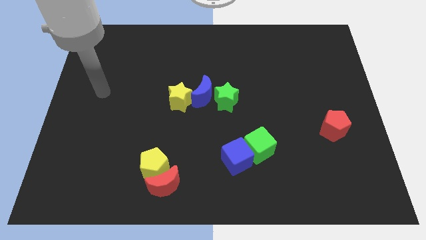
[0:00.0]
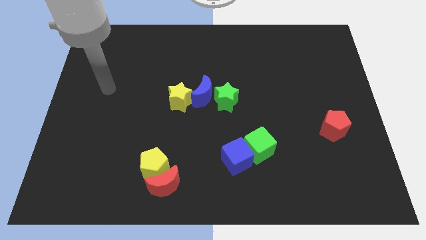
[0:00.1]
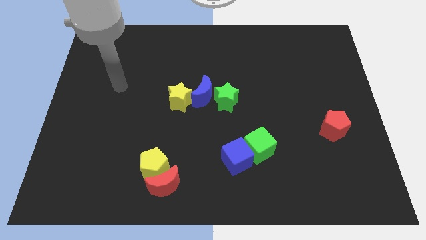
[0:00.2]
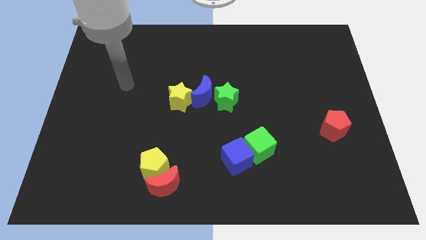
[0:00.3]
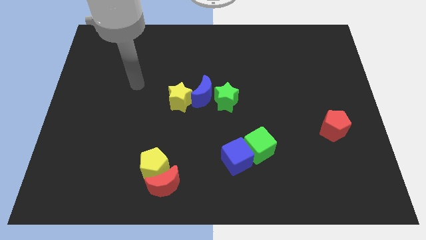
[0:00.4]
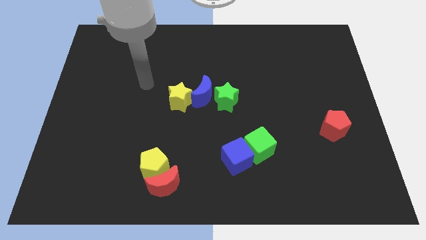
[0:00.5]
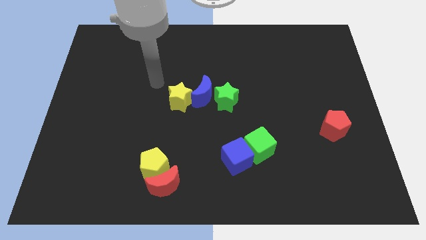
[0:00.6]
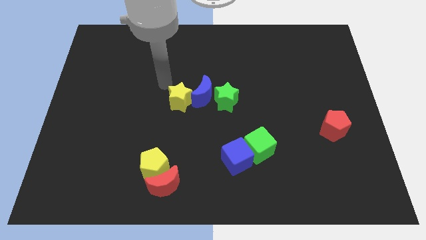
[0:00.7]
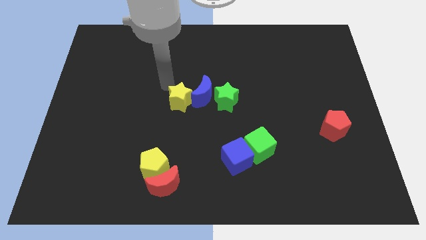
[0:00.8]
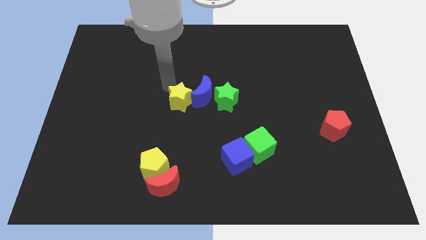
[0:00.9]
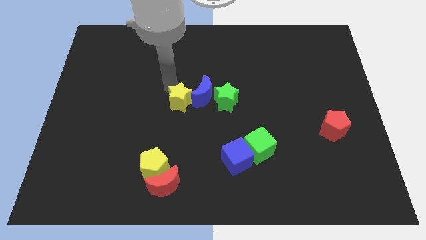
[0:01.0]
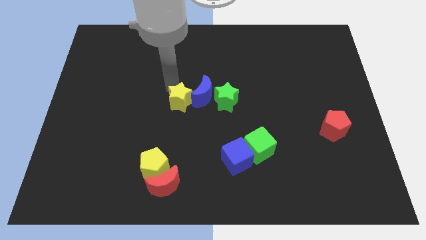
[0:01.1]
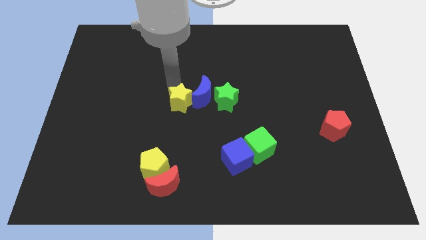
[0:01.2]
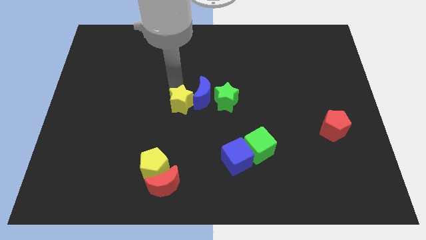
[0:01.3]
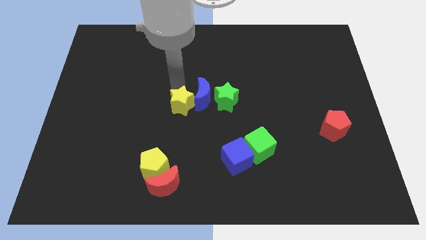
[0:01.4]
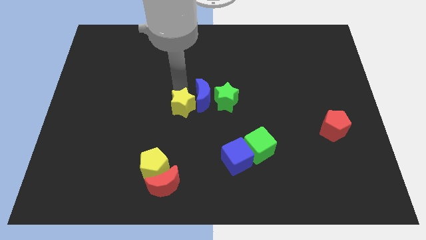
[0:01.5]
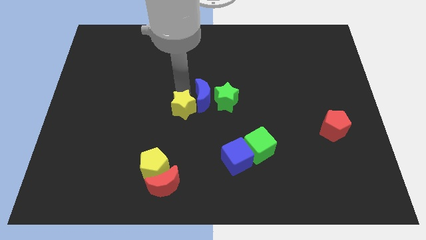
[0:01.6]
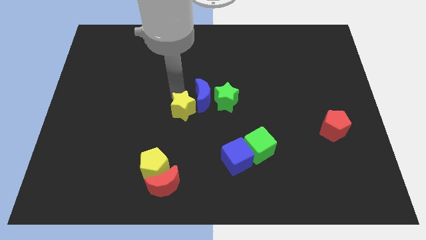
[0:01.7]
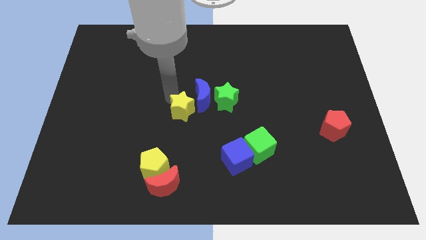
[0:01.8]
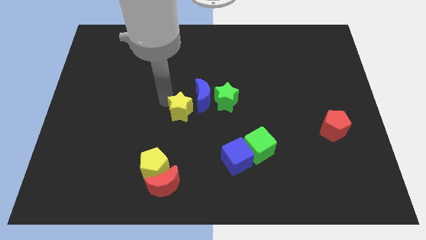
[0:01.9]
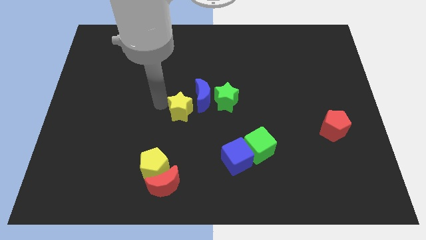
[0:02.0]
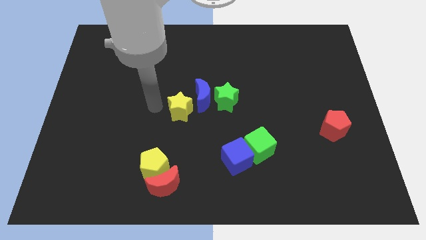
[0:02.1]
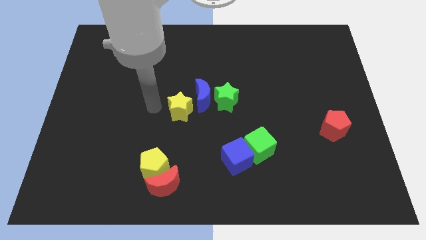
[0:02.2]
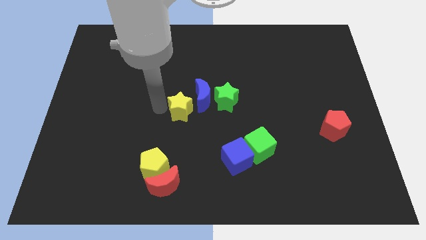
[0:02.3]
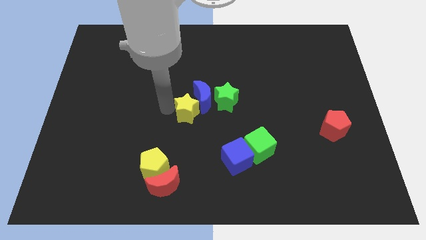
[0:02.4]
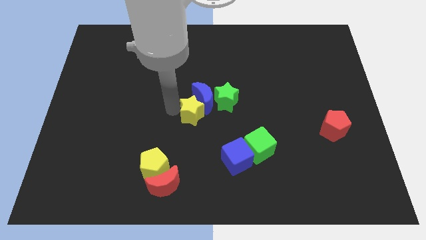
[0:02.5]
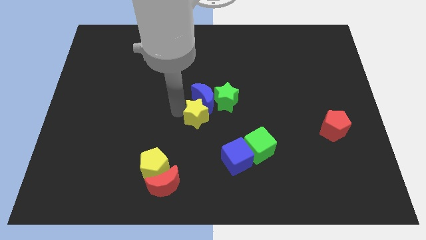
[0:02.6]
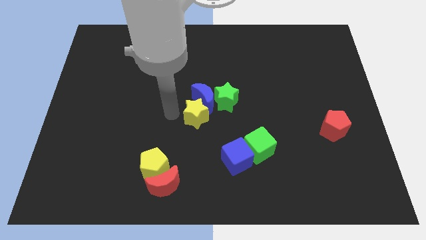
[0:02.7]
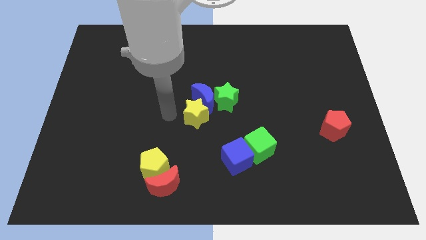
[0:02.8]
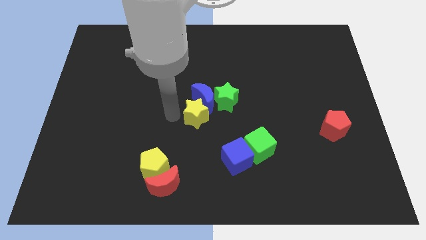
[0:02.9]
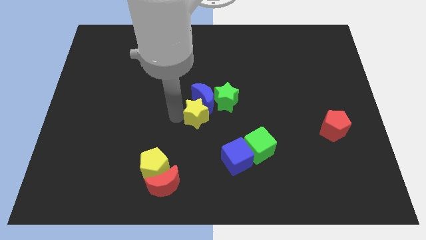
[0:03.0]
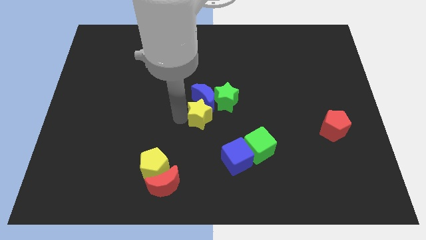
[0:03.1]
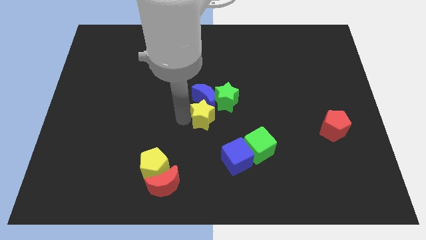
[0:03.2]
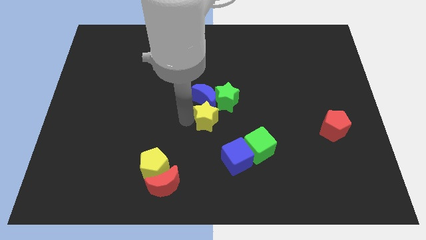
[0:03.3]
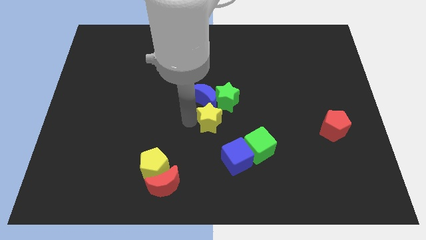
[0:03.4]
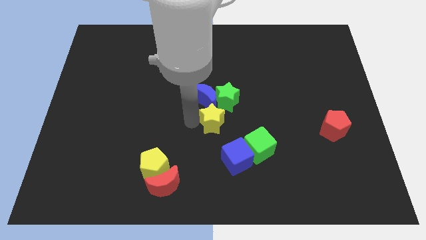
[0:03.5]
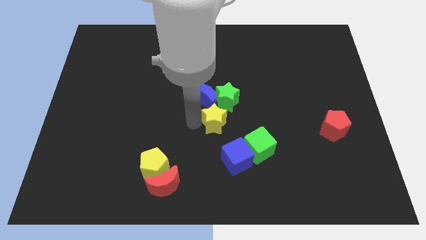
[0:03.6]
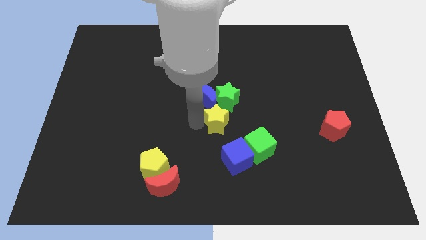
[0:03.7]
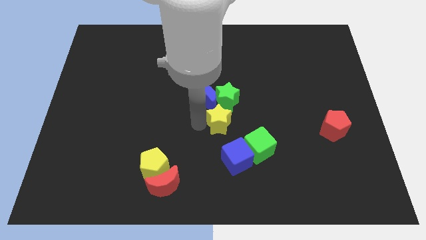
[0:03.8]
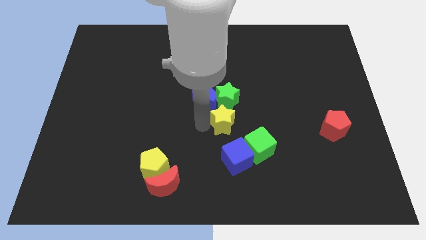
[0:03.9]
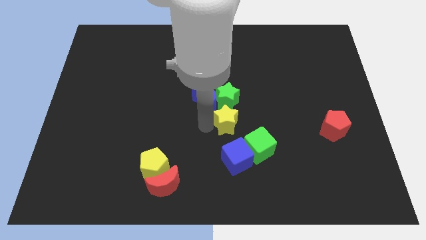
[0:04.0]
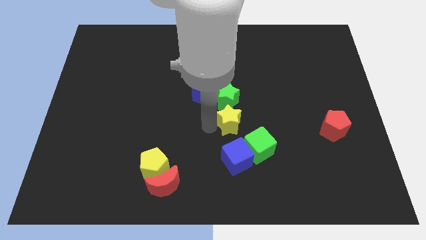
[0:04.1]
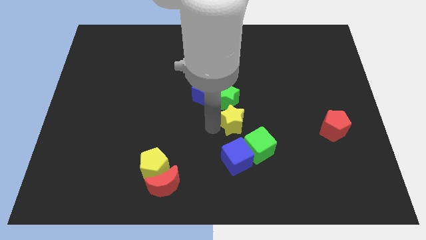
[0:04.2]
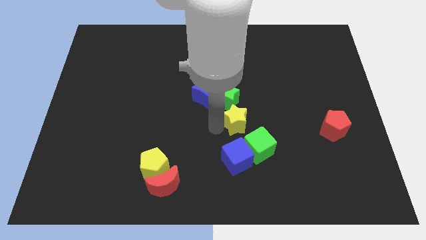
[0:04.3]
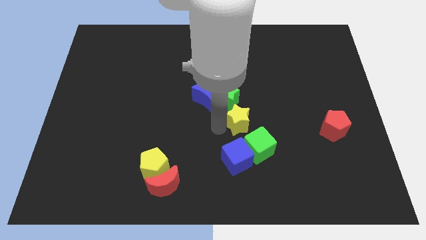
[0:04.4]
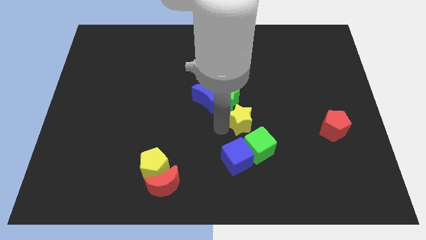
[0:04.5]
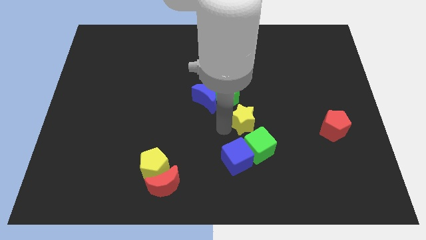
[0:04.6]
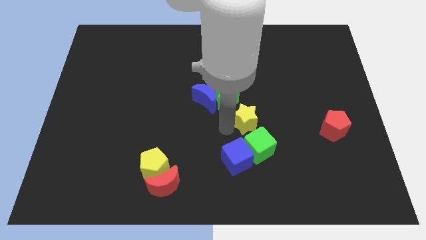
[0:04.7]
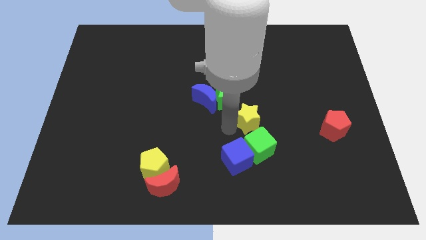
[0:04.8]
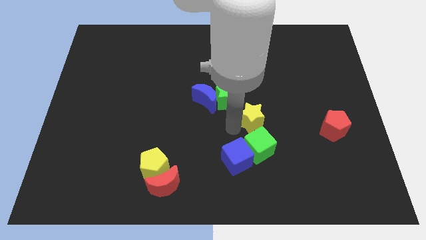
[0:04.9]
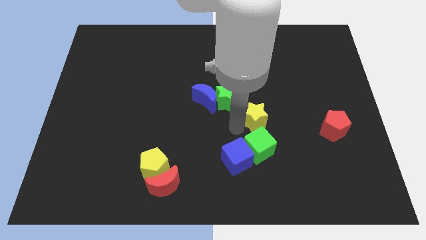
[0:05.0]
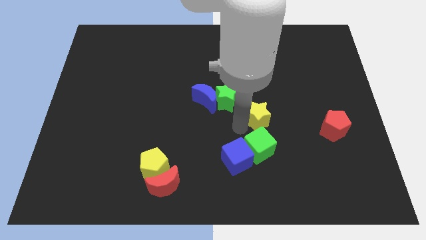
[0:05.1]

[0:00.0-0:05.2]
move the yellow star just right of the green star

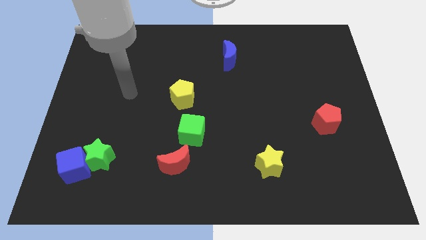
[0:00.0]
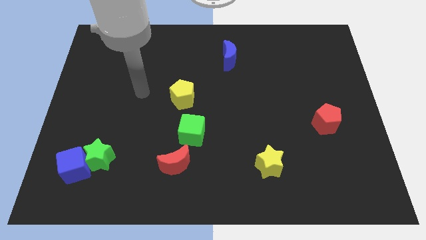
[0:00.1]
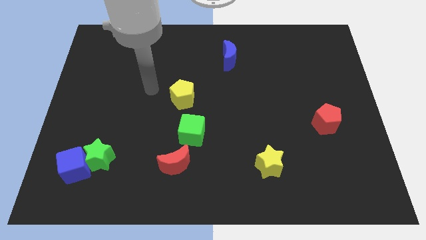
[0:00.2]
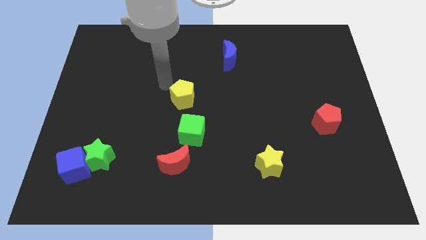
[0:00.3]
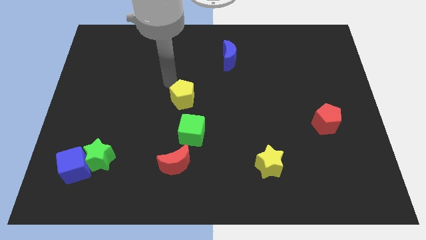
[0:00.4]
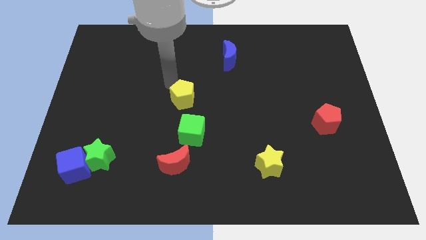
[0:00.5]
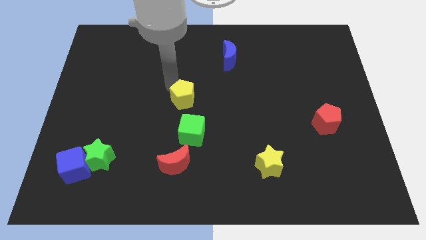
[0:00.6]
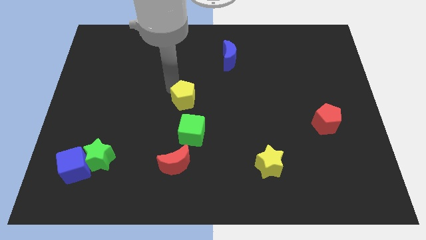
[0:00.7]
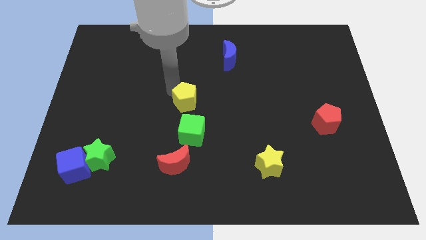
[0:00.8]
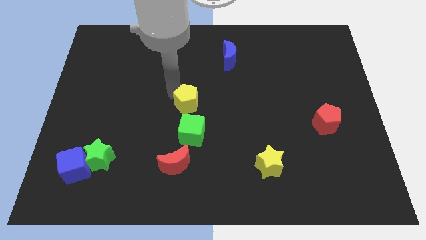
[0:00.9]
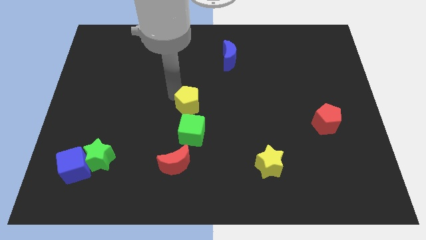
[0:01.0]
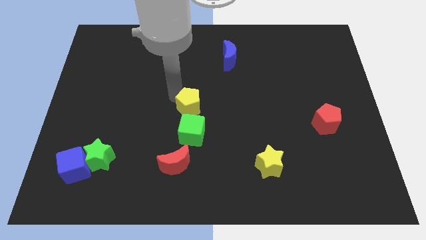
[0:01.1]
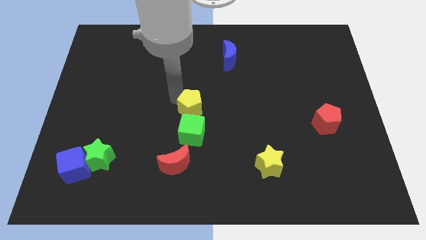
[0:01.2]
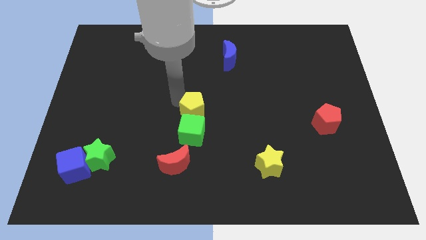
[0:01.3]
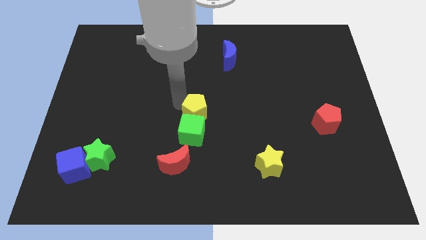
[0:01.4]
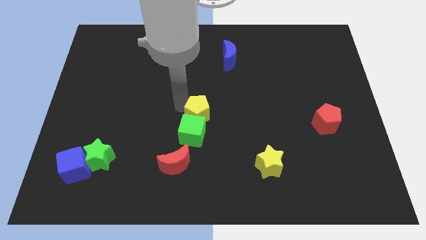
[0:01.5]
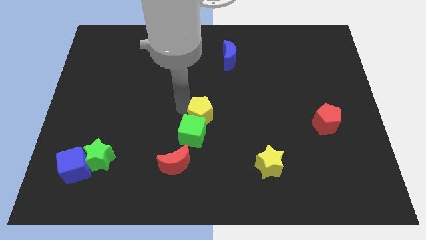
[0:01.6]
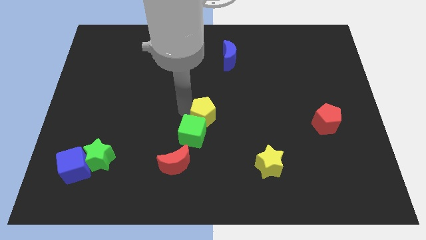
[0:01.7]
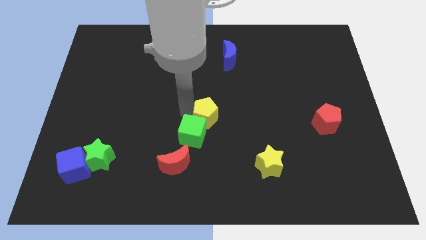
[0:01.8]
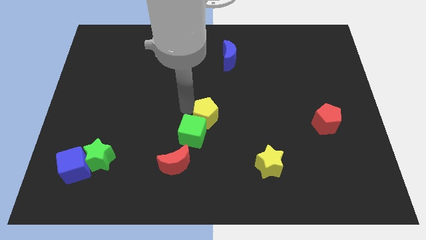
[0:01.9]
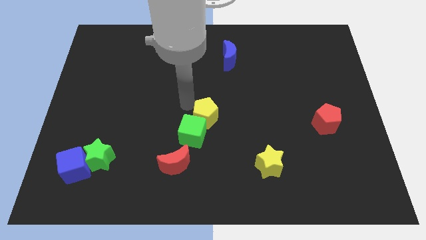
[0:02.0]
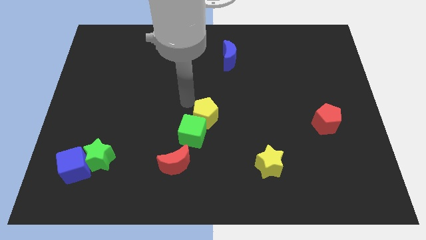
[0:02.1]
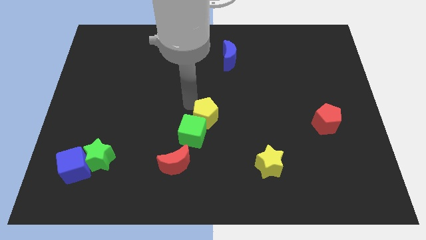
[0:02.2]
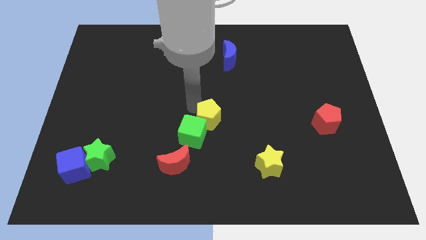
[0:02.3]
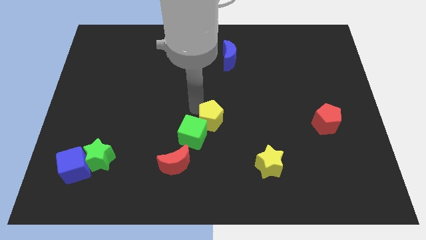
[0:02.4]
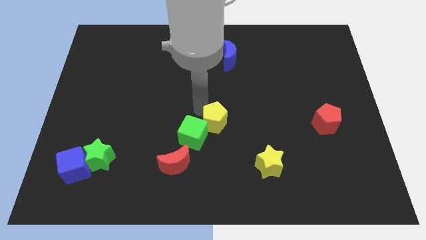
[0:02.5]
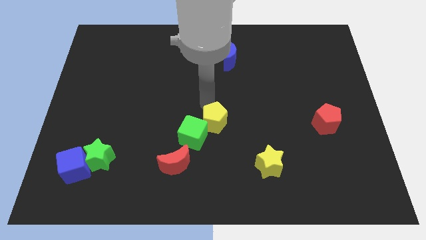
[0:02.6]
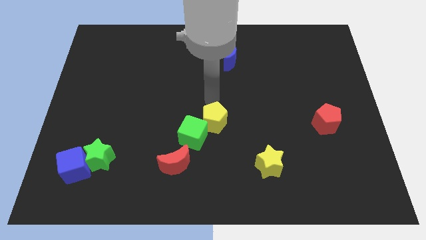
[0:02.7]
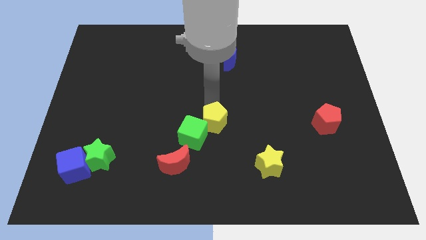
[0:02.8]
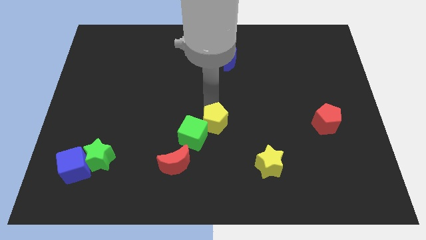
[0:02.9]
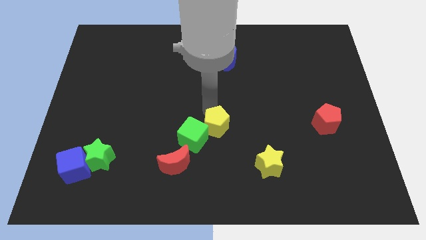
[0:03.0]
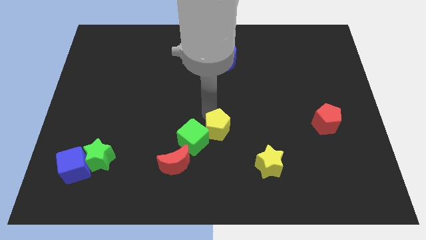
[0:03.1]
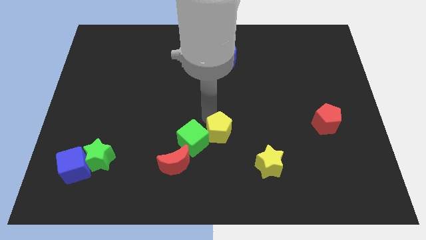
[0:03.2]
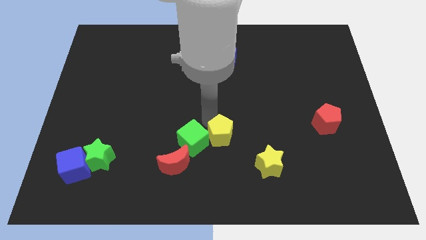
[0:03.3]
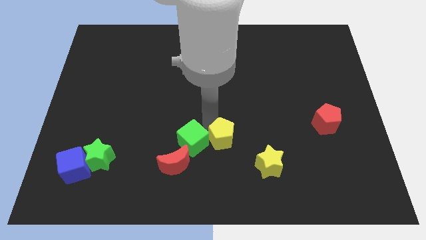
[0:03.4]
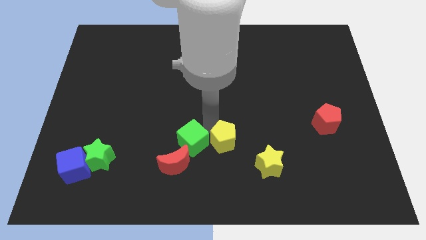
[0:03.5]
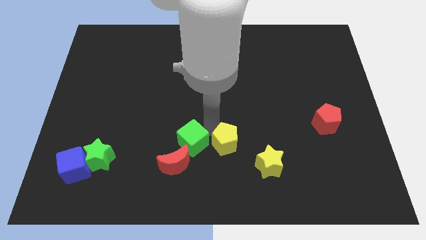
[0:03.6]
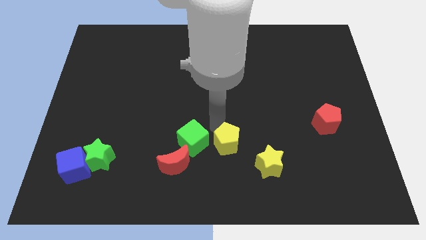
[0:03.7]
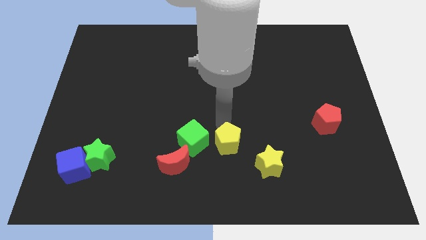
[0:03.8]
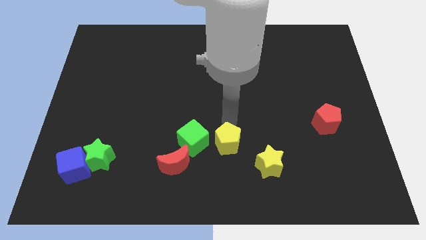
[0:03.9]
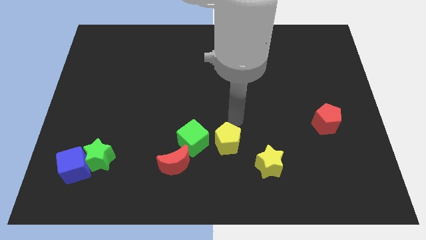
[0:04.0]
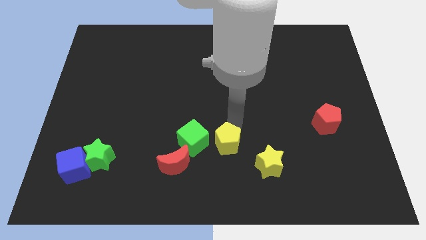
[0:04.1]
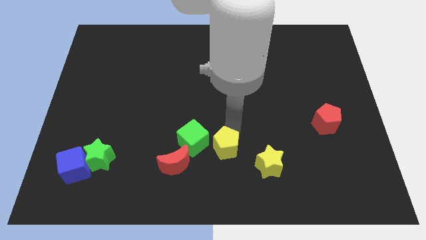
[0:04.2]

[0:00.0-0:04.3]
slide the yellow pentagon to the left of the yellow star
